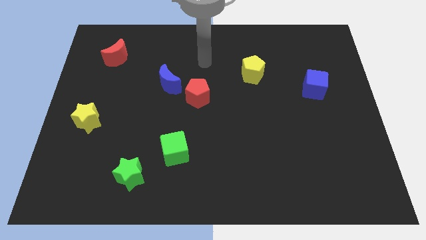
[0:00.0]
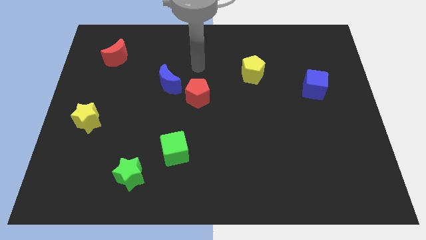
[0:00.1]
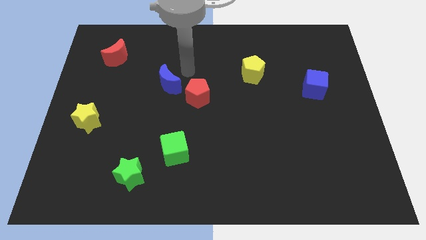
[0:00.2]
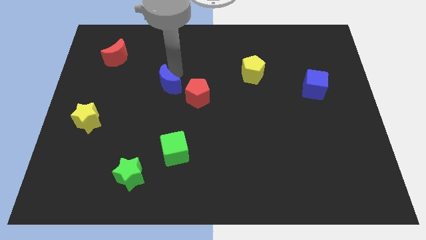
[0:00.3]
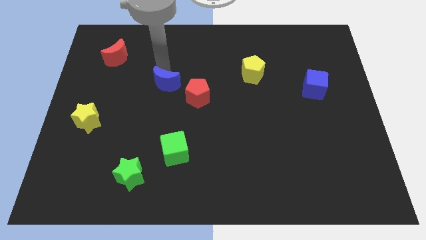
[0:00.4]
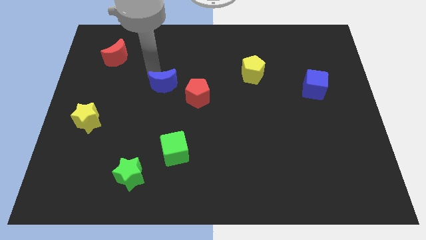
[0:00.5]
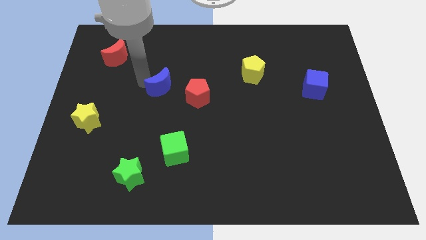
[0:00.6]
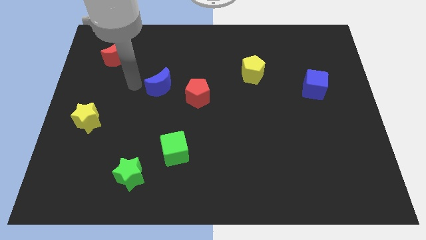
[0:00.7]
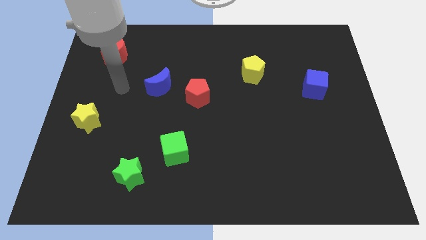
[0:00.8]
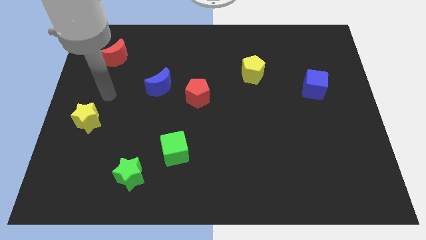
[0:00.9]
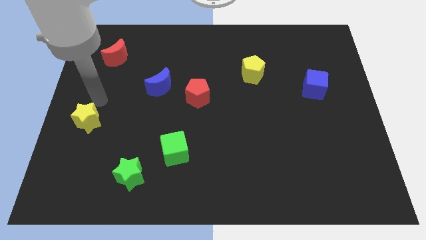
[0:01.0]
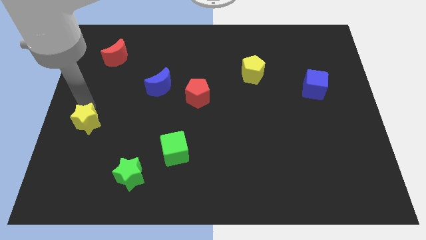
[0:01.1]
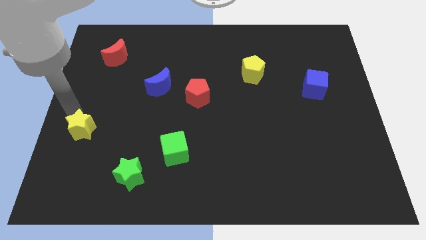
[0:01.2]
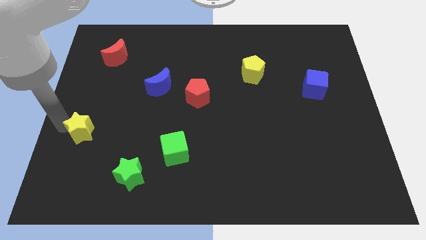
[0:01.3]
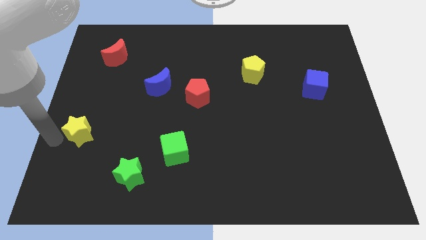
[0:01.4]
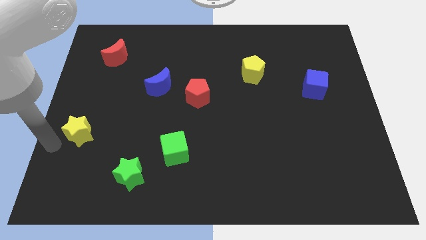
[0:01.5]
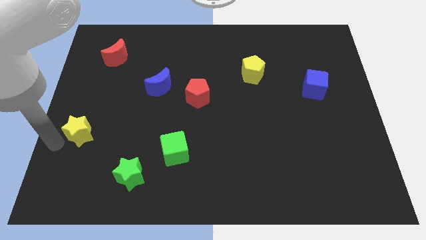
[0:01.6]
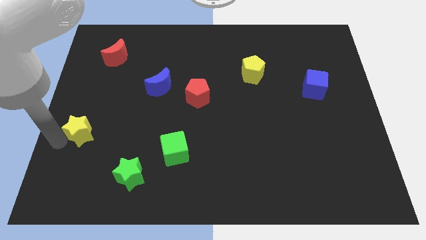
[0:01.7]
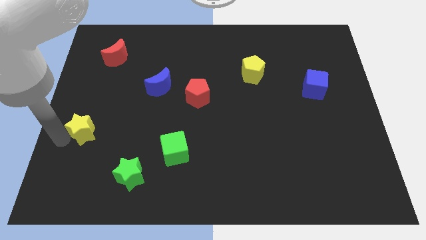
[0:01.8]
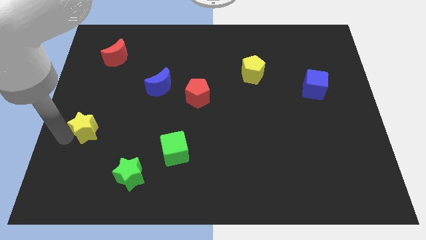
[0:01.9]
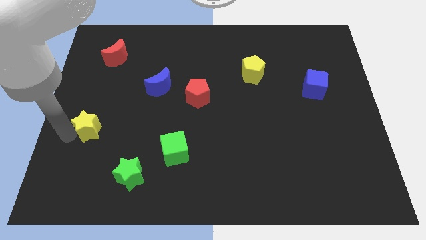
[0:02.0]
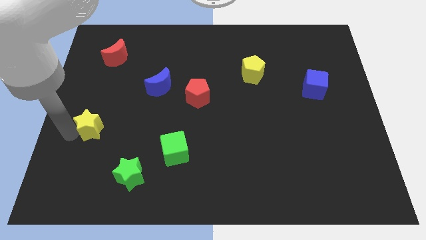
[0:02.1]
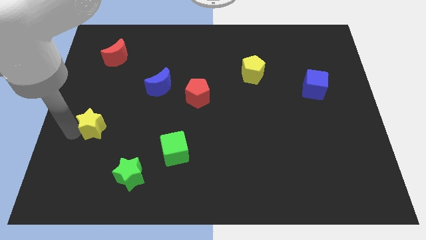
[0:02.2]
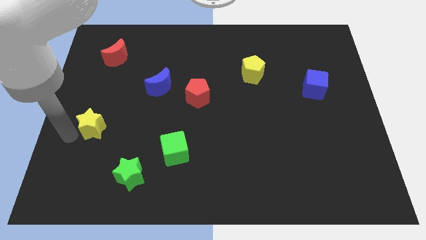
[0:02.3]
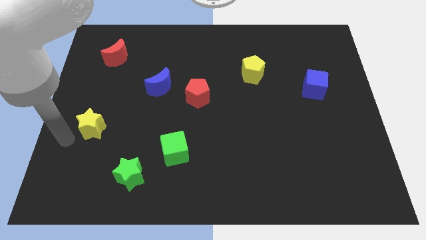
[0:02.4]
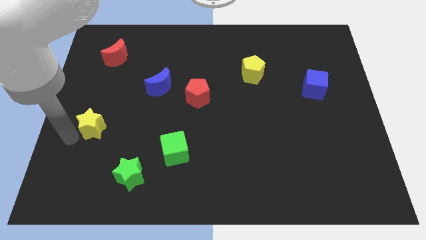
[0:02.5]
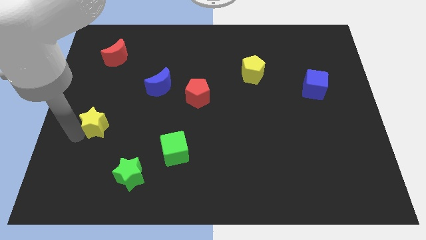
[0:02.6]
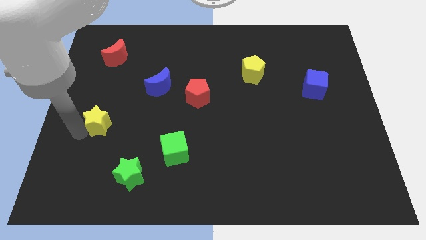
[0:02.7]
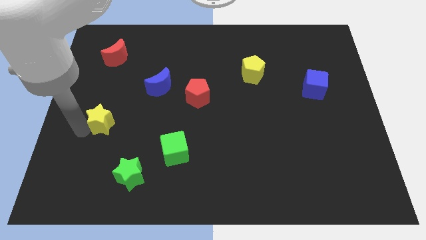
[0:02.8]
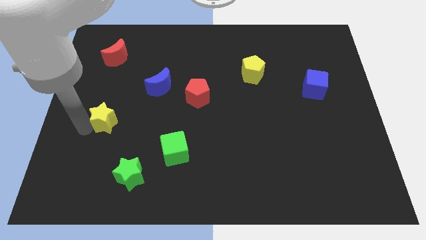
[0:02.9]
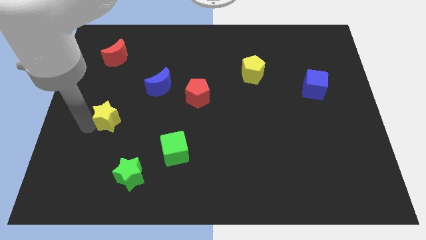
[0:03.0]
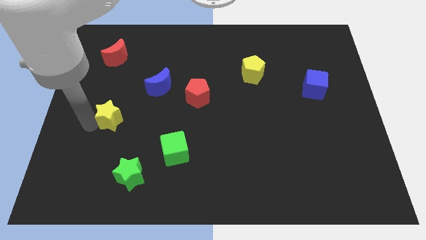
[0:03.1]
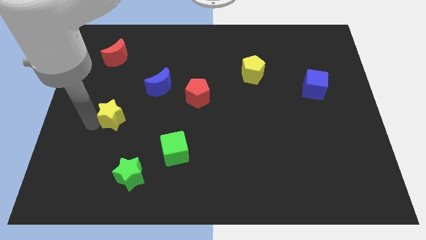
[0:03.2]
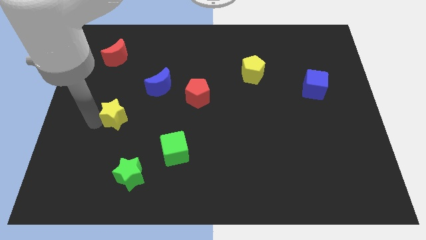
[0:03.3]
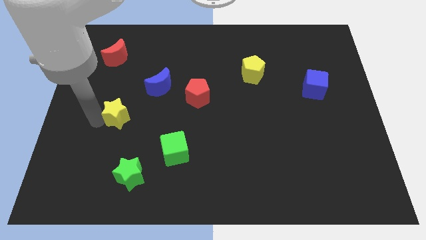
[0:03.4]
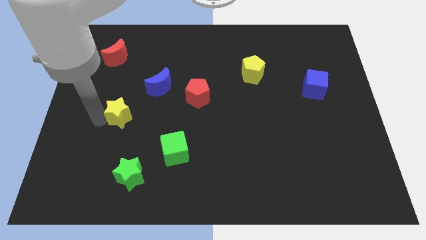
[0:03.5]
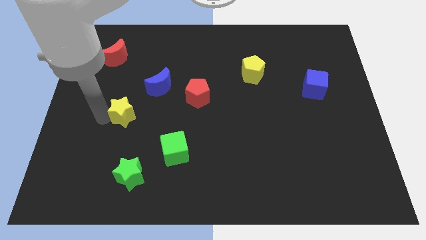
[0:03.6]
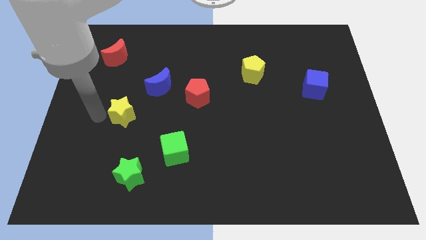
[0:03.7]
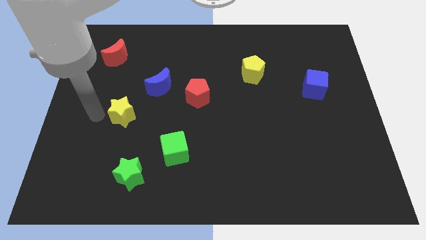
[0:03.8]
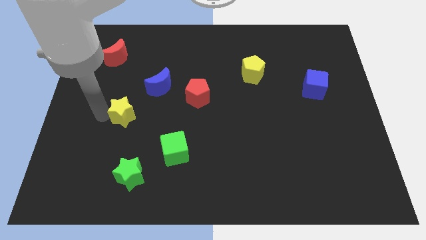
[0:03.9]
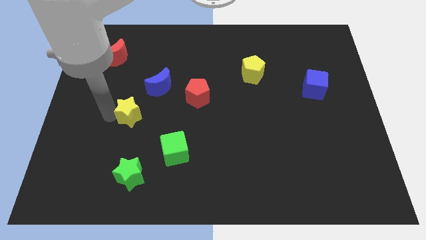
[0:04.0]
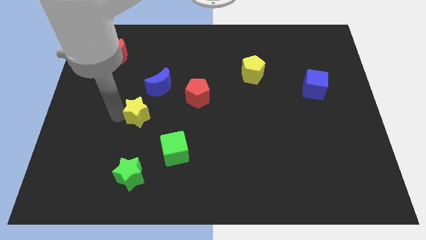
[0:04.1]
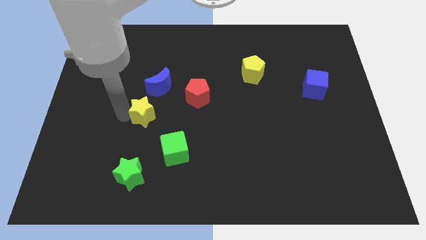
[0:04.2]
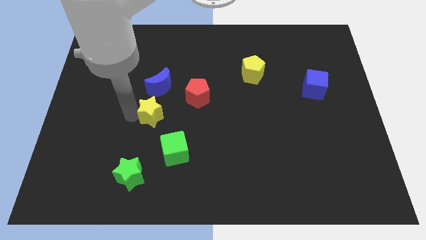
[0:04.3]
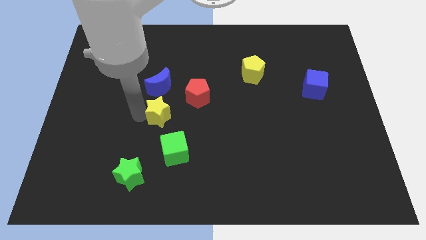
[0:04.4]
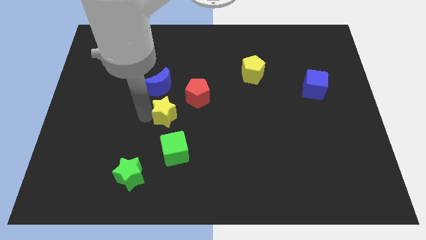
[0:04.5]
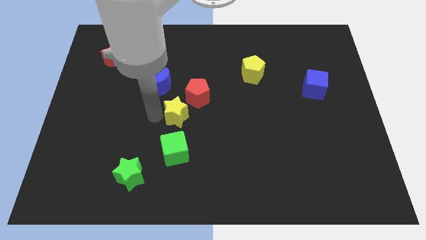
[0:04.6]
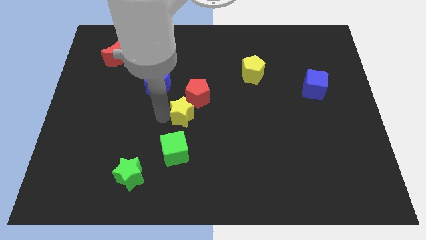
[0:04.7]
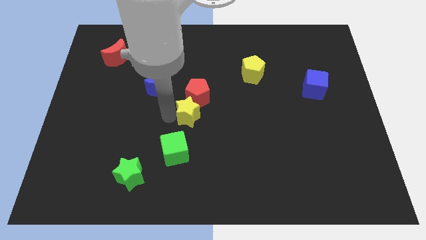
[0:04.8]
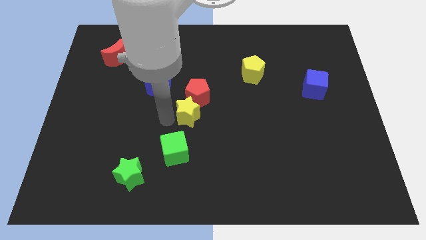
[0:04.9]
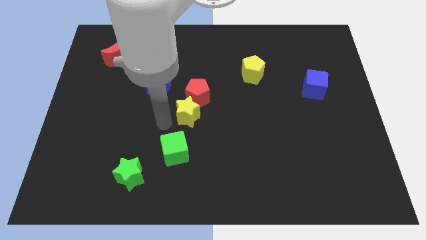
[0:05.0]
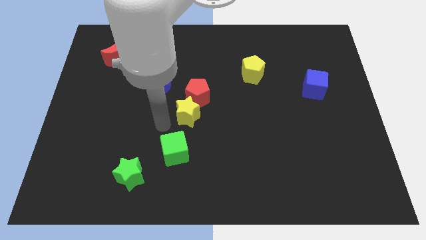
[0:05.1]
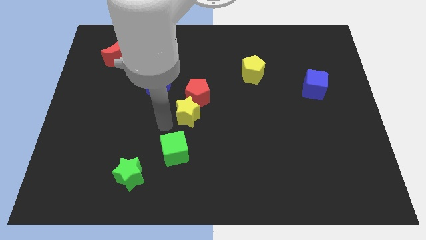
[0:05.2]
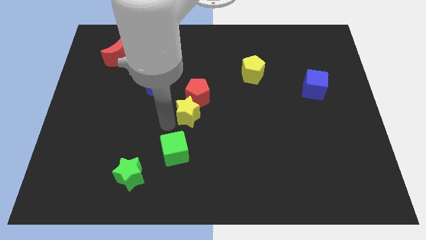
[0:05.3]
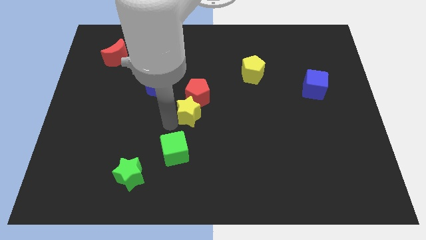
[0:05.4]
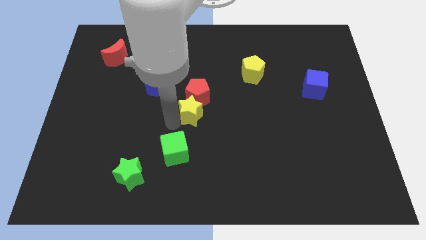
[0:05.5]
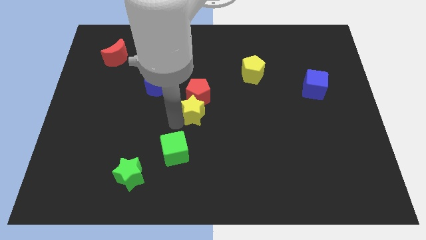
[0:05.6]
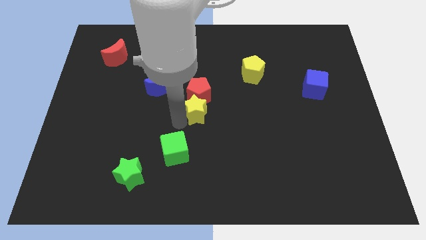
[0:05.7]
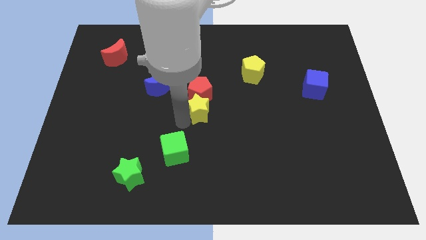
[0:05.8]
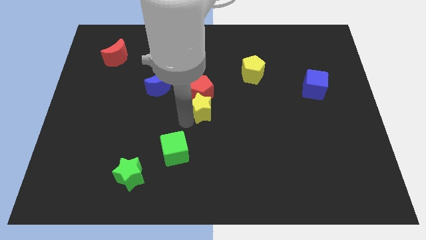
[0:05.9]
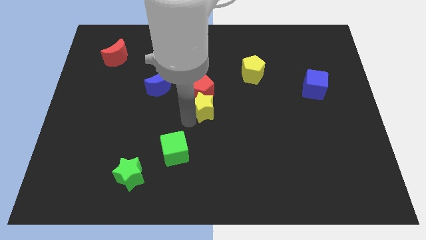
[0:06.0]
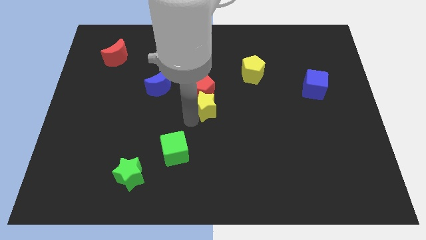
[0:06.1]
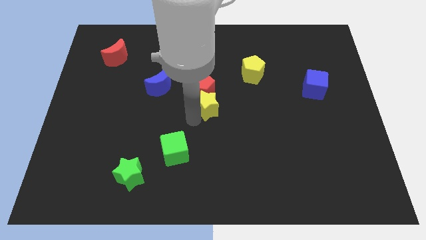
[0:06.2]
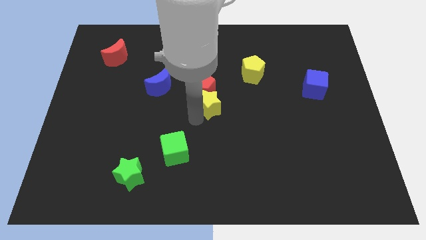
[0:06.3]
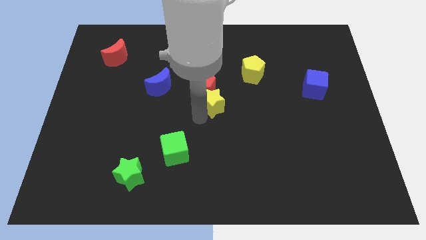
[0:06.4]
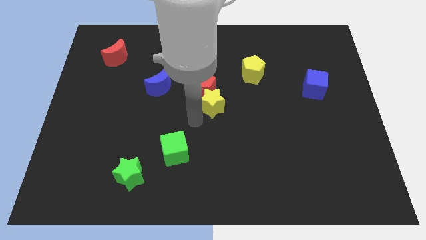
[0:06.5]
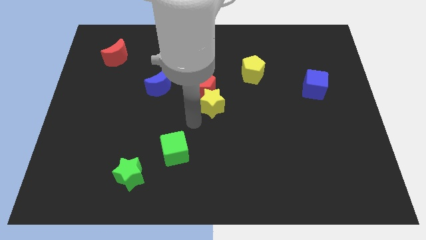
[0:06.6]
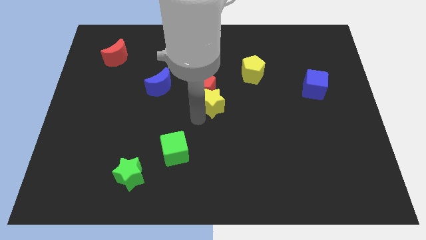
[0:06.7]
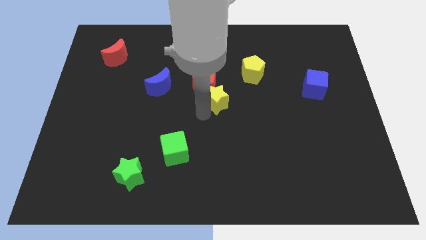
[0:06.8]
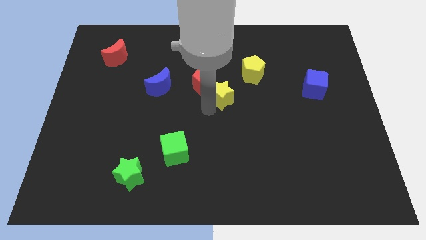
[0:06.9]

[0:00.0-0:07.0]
slide the yellow star to the bottom left of the yellow pentagon
